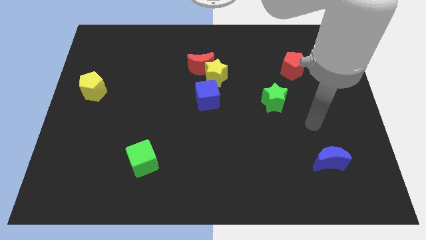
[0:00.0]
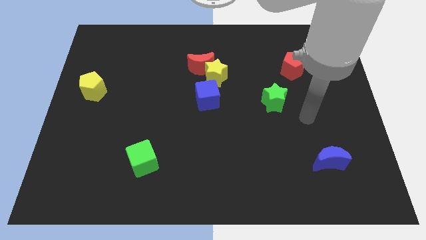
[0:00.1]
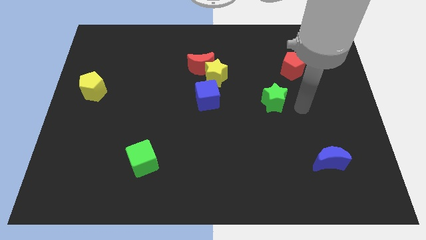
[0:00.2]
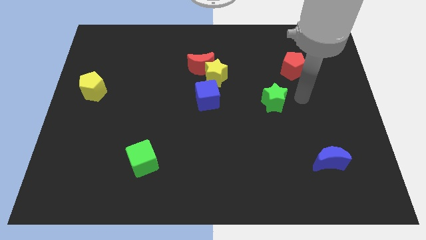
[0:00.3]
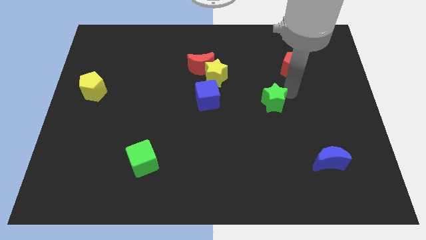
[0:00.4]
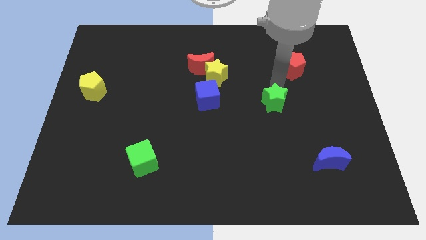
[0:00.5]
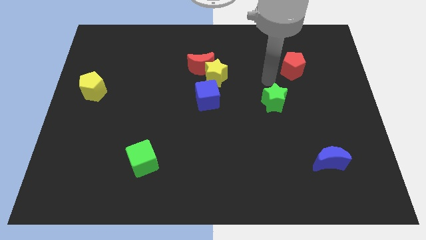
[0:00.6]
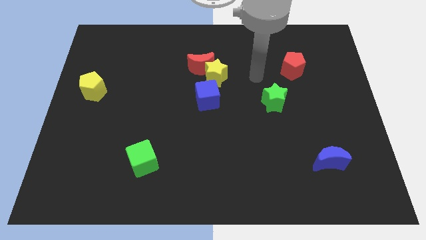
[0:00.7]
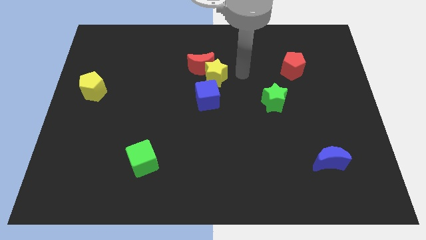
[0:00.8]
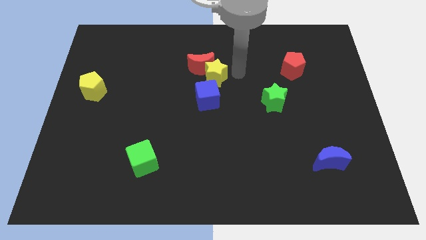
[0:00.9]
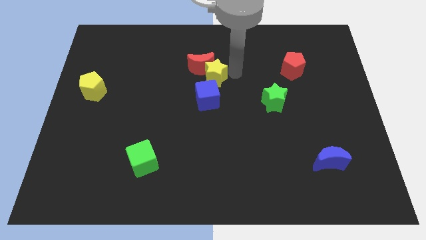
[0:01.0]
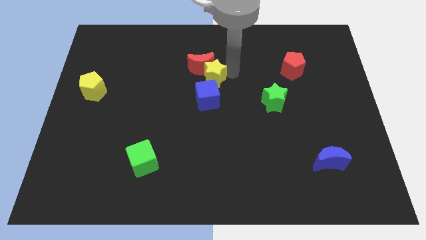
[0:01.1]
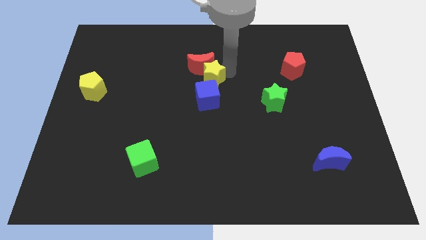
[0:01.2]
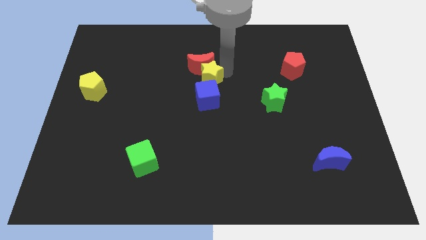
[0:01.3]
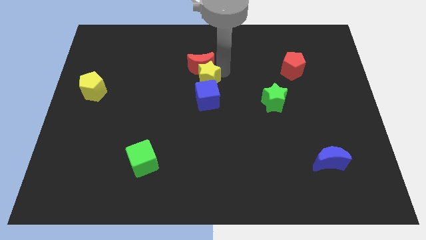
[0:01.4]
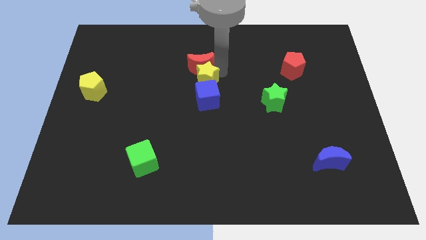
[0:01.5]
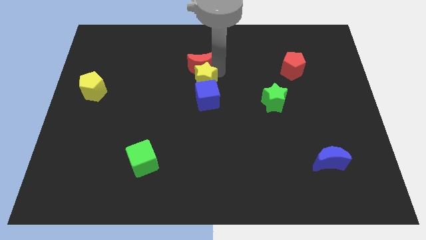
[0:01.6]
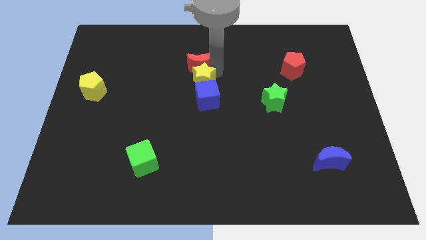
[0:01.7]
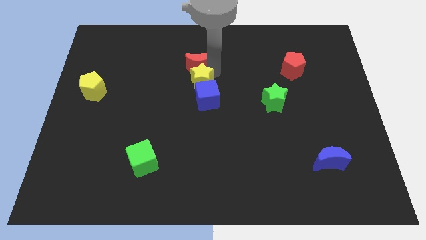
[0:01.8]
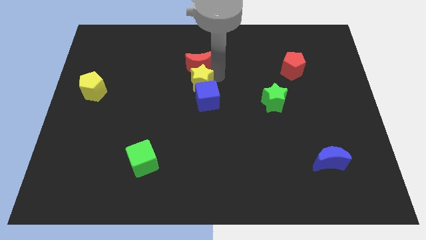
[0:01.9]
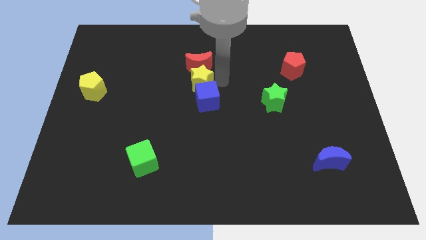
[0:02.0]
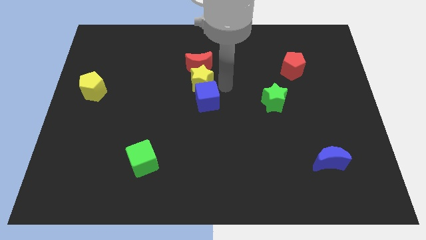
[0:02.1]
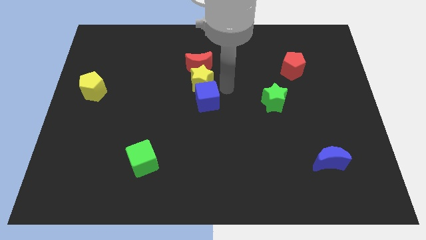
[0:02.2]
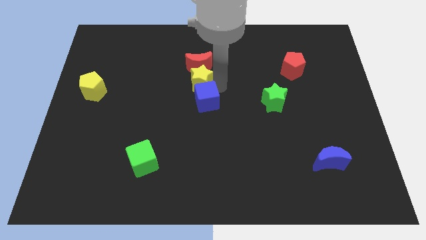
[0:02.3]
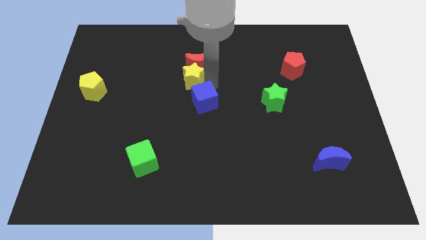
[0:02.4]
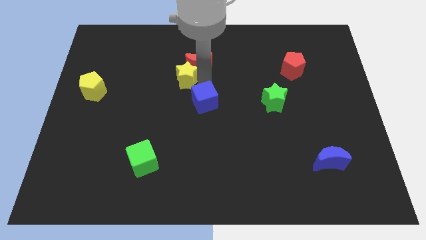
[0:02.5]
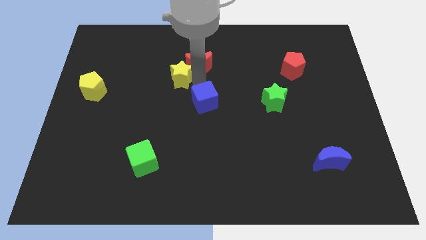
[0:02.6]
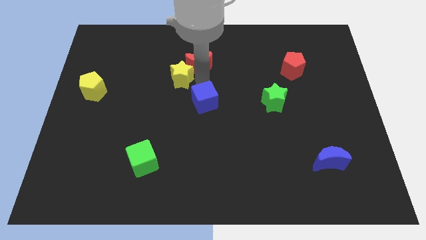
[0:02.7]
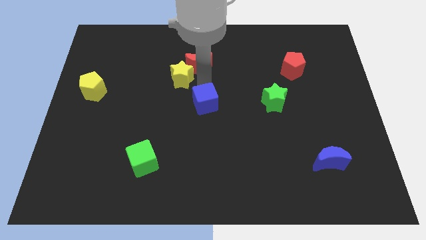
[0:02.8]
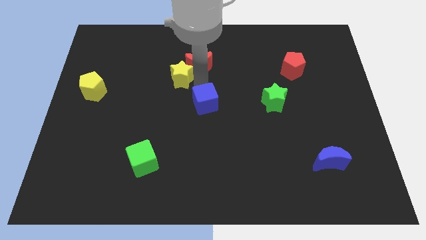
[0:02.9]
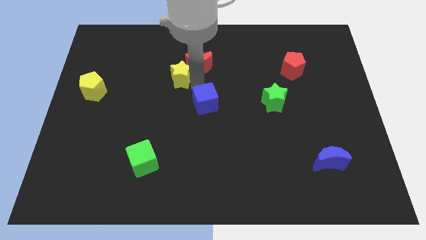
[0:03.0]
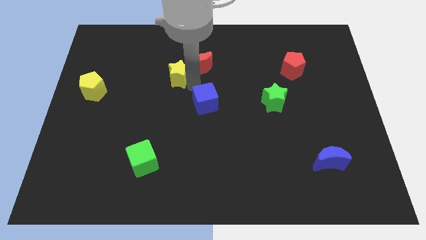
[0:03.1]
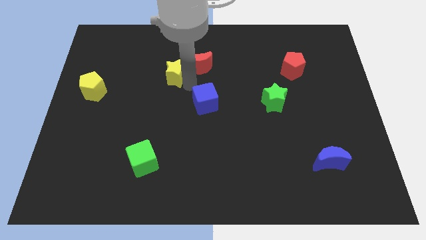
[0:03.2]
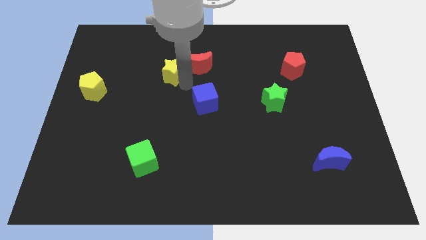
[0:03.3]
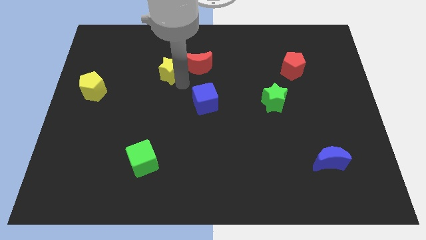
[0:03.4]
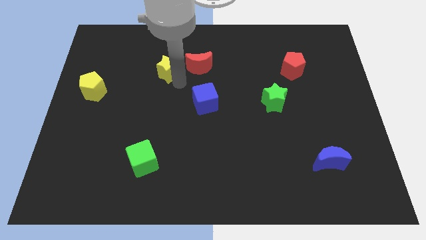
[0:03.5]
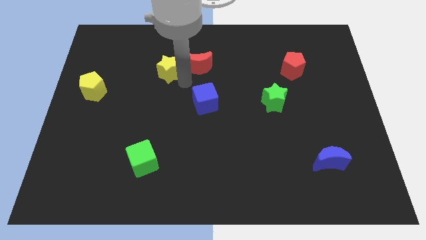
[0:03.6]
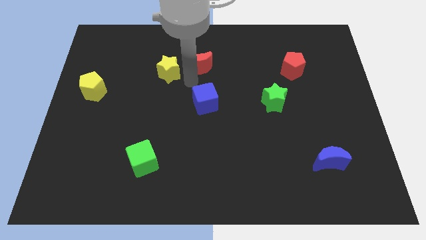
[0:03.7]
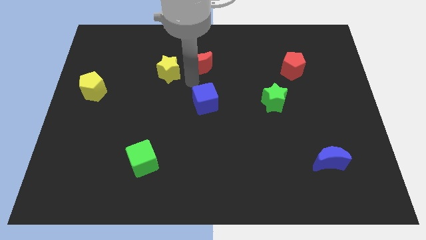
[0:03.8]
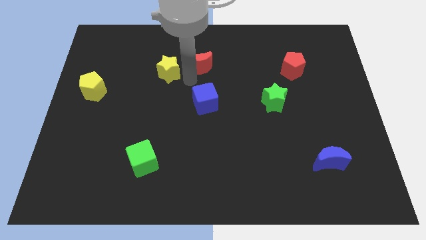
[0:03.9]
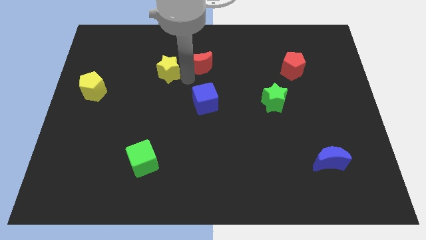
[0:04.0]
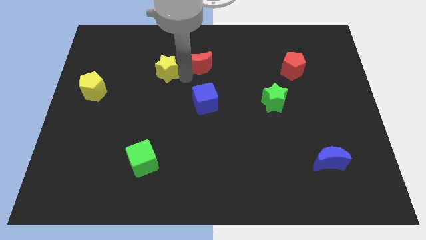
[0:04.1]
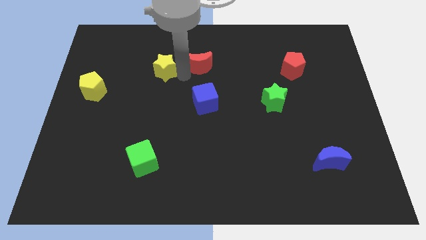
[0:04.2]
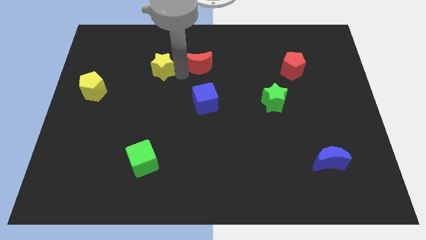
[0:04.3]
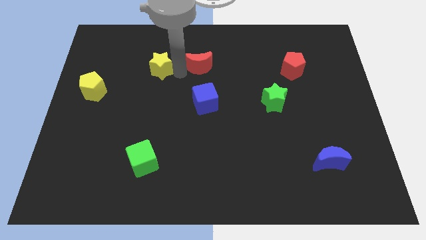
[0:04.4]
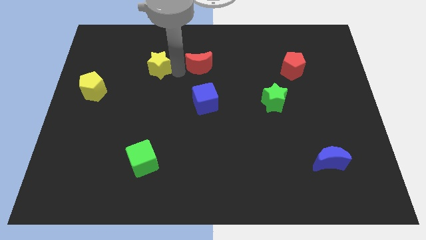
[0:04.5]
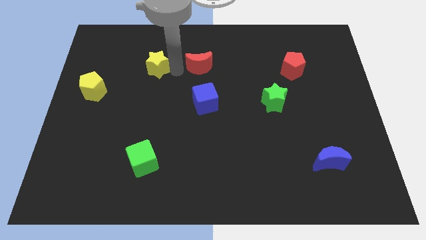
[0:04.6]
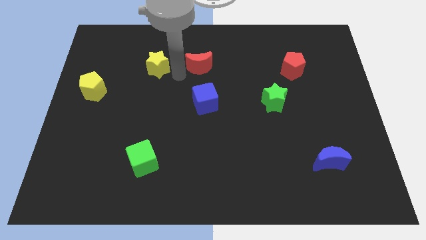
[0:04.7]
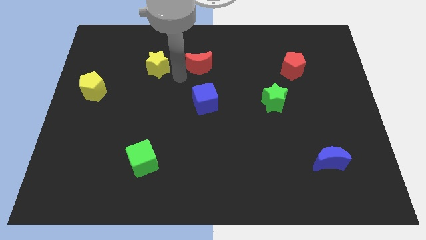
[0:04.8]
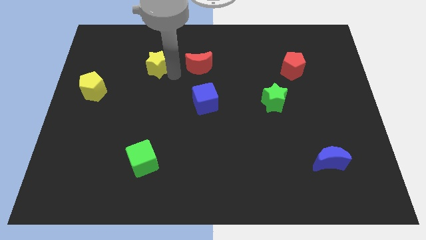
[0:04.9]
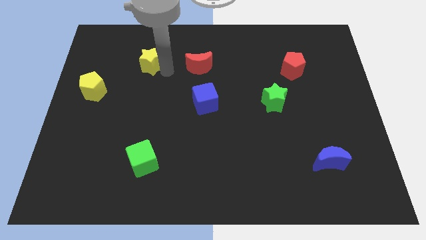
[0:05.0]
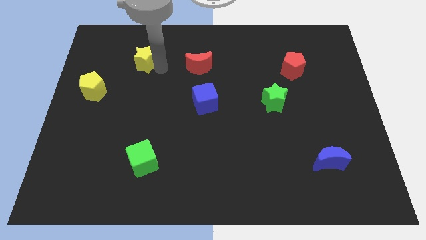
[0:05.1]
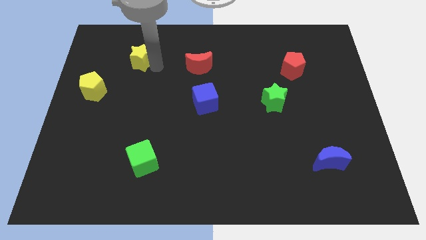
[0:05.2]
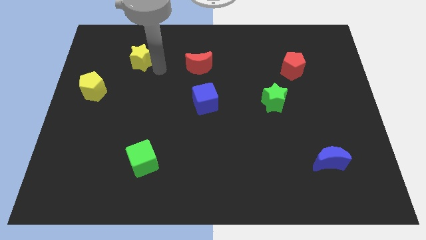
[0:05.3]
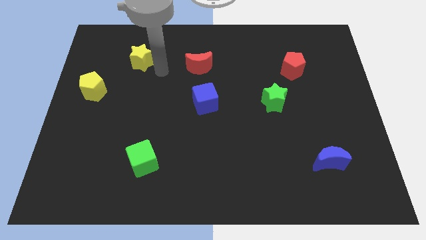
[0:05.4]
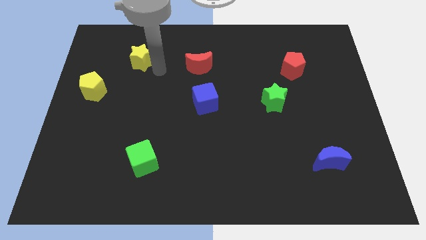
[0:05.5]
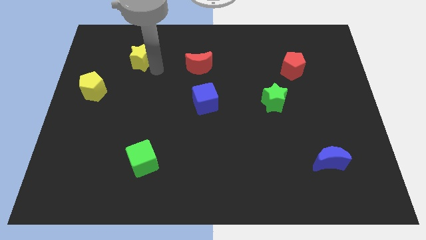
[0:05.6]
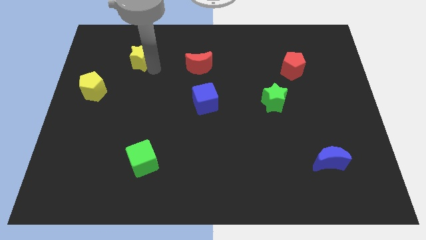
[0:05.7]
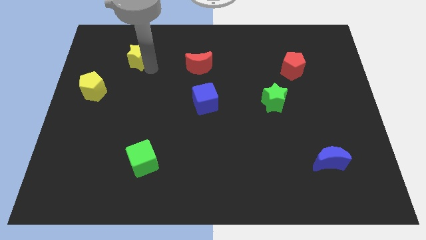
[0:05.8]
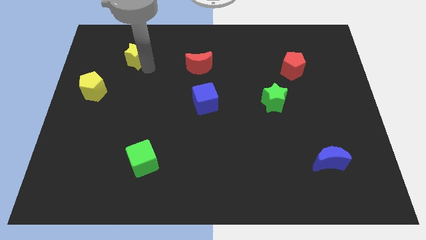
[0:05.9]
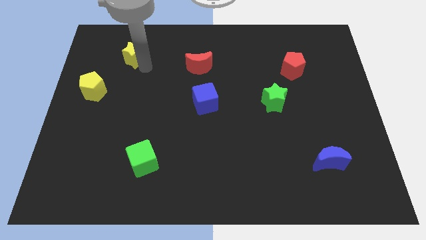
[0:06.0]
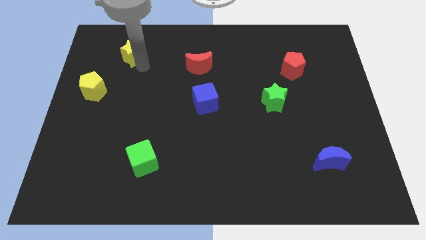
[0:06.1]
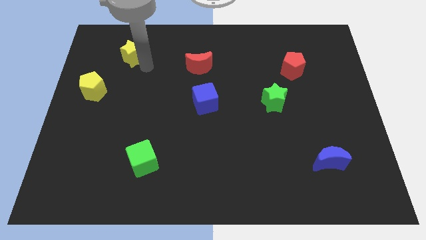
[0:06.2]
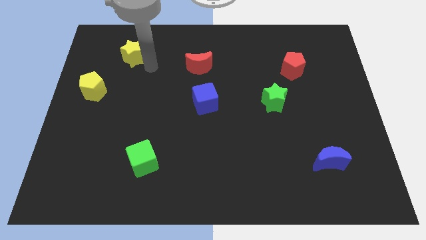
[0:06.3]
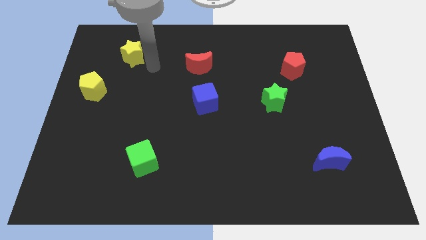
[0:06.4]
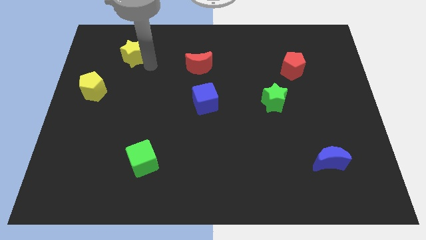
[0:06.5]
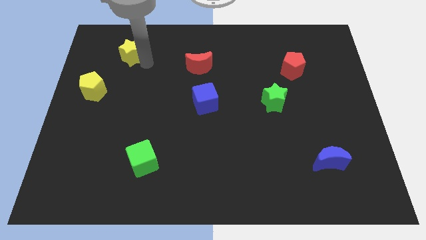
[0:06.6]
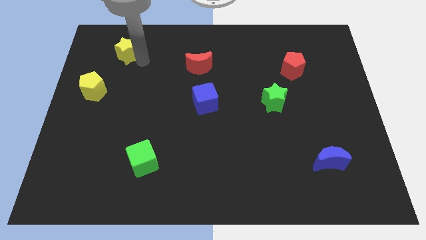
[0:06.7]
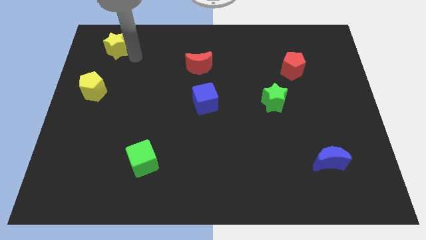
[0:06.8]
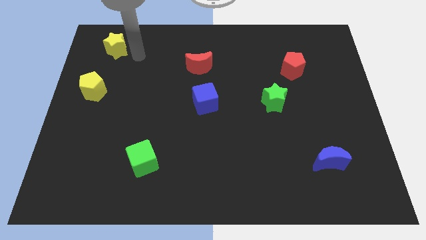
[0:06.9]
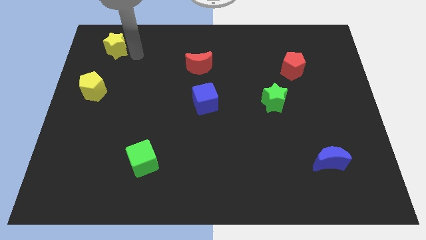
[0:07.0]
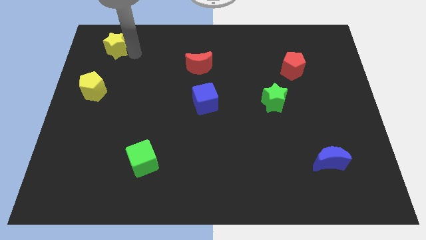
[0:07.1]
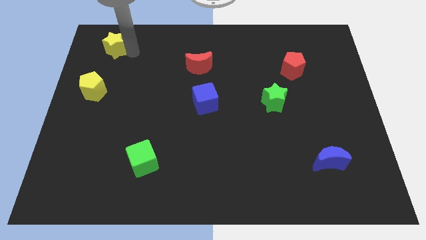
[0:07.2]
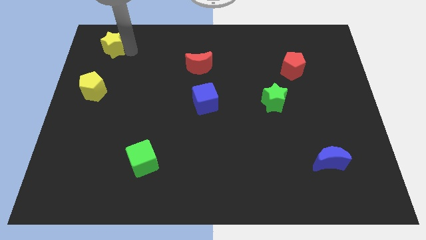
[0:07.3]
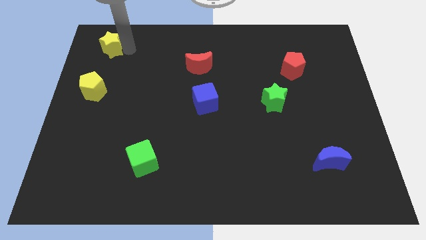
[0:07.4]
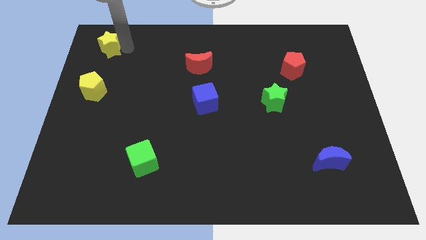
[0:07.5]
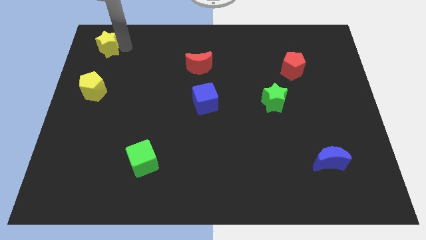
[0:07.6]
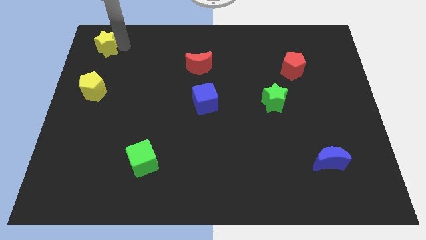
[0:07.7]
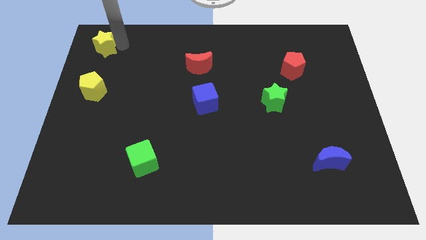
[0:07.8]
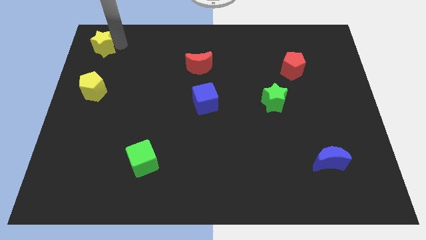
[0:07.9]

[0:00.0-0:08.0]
push the yellow star to the top left of the board
